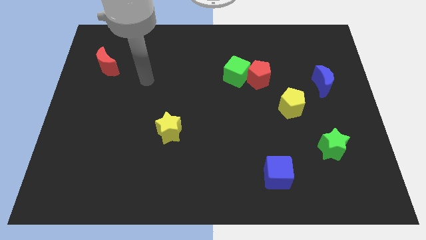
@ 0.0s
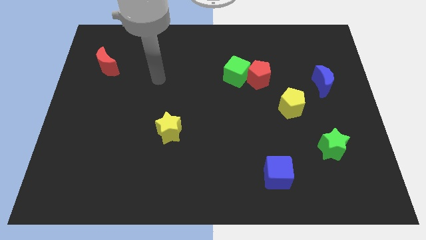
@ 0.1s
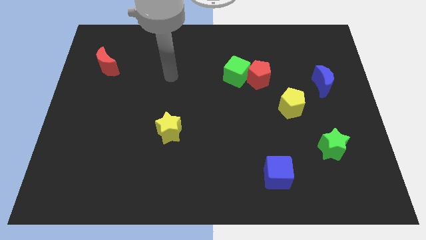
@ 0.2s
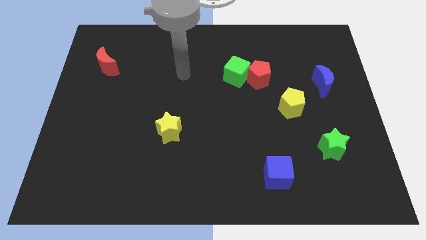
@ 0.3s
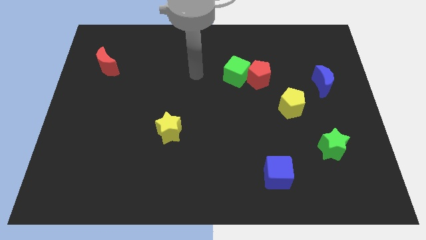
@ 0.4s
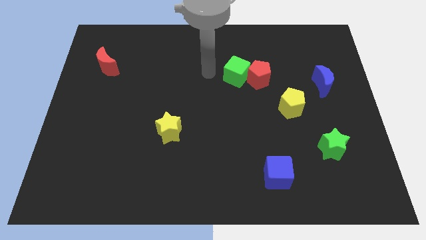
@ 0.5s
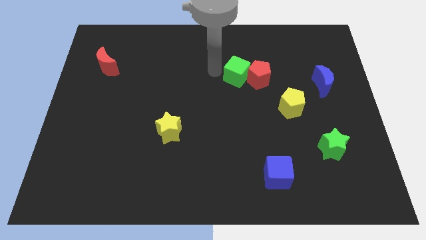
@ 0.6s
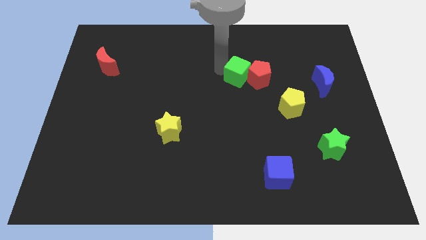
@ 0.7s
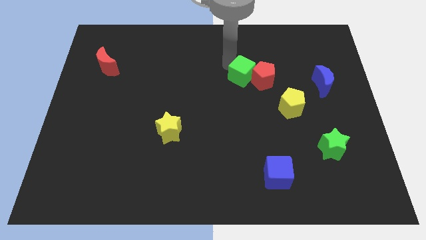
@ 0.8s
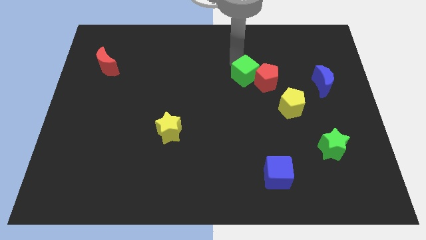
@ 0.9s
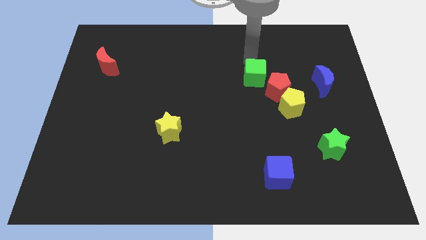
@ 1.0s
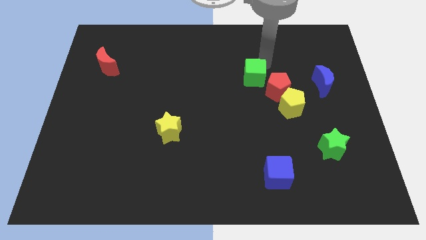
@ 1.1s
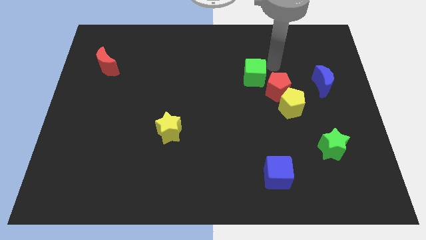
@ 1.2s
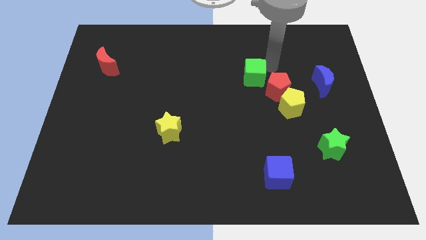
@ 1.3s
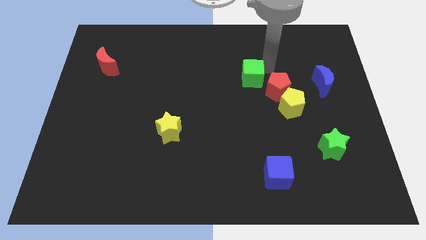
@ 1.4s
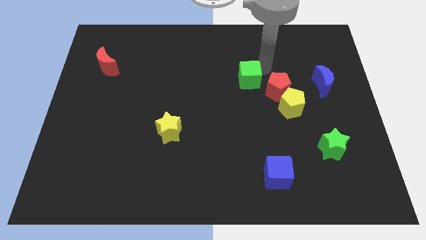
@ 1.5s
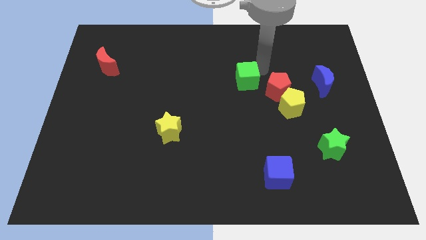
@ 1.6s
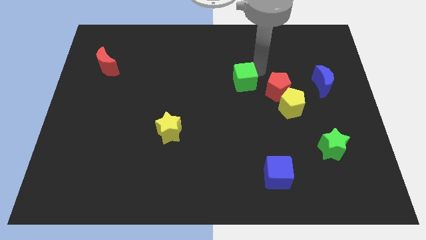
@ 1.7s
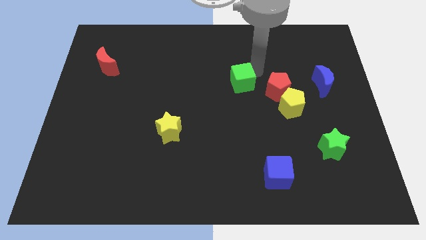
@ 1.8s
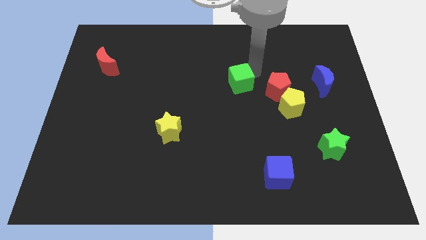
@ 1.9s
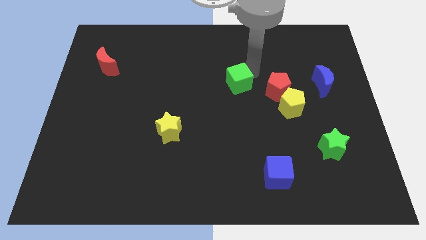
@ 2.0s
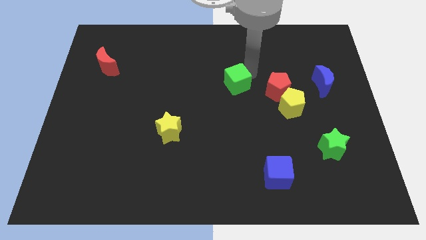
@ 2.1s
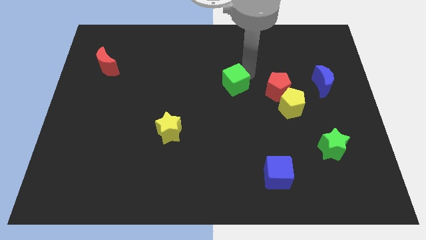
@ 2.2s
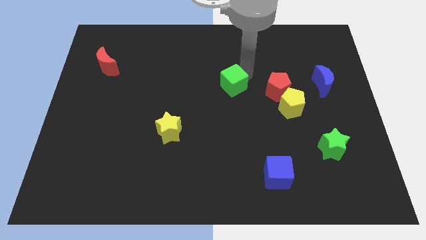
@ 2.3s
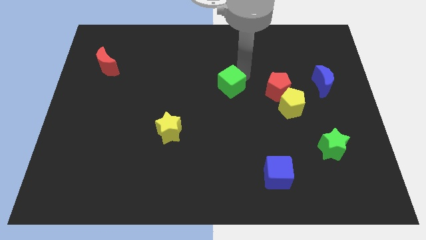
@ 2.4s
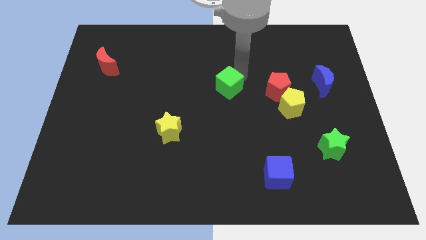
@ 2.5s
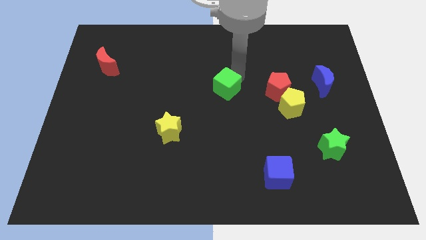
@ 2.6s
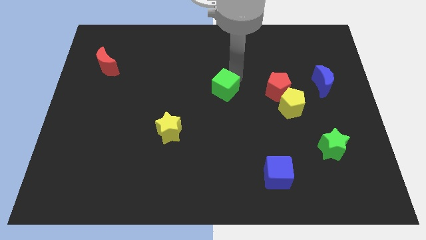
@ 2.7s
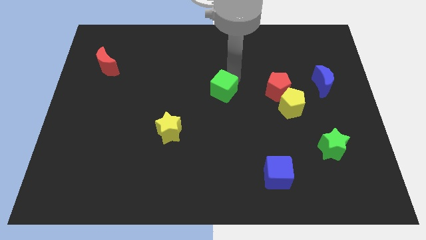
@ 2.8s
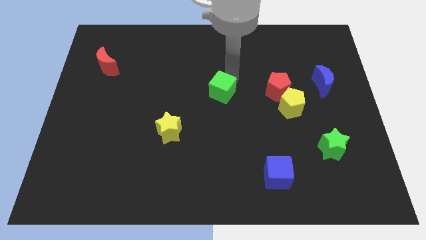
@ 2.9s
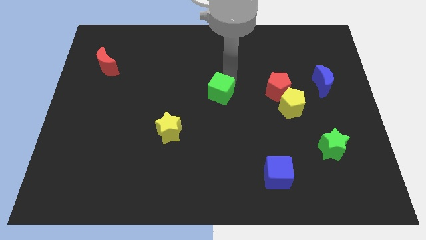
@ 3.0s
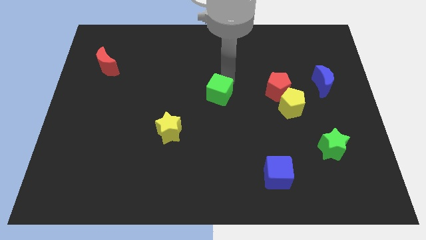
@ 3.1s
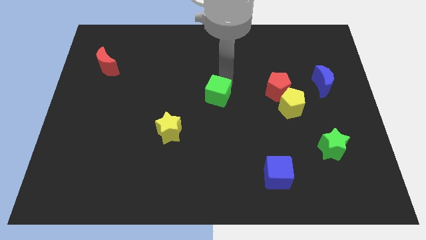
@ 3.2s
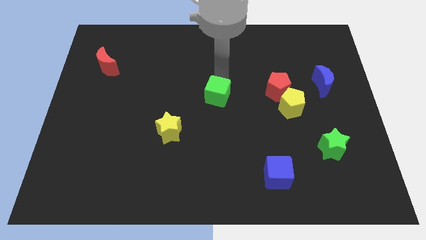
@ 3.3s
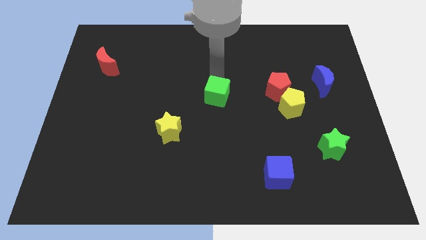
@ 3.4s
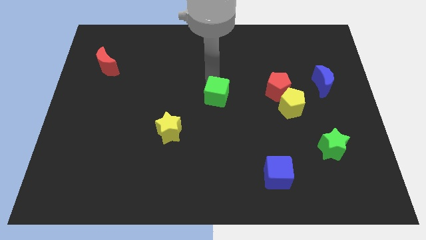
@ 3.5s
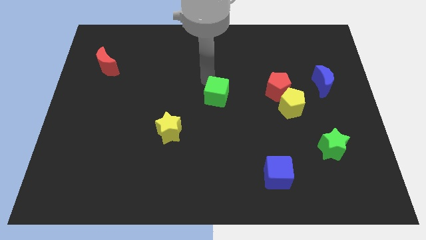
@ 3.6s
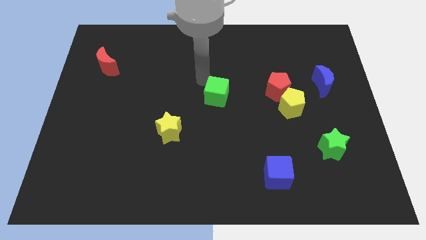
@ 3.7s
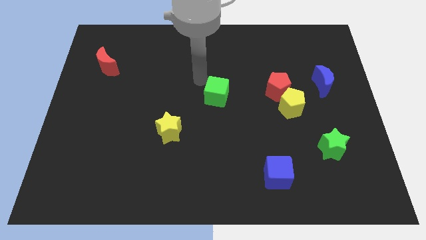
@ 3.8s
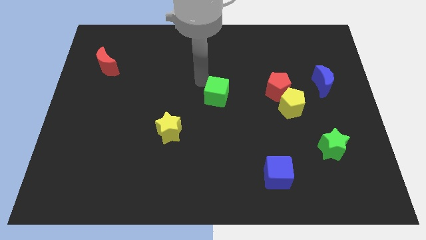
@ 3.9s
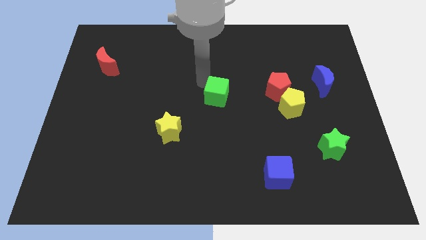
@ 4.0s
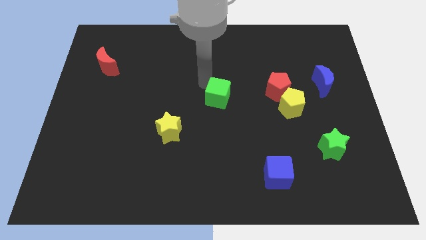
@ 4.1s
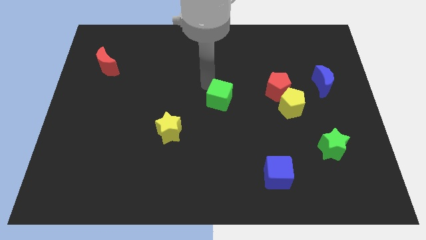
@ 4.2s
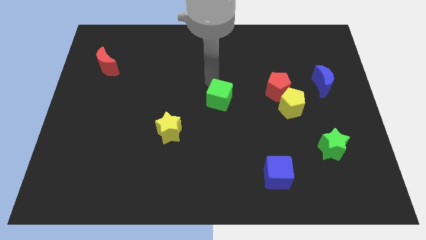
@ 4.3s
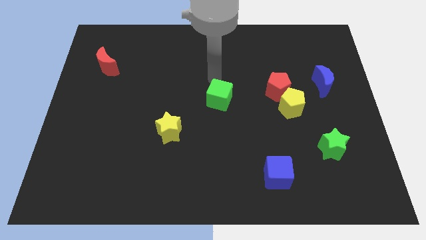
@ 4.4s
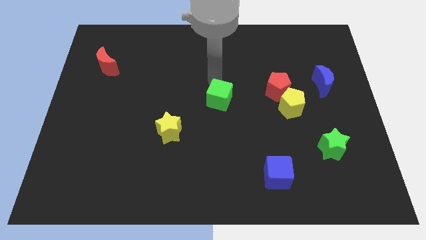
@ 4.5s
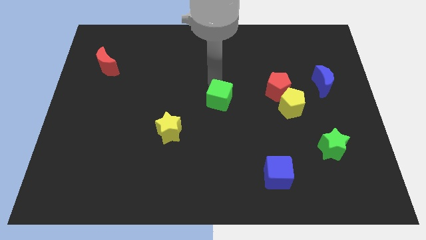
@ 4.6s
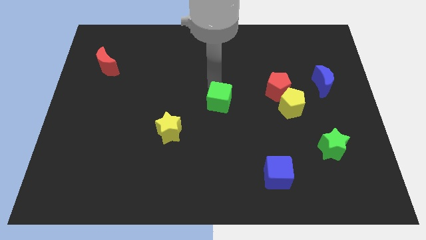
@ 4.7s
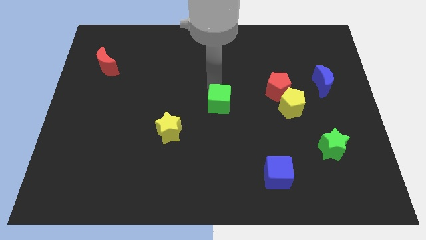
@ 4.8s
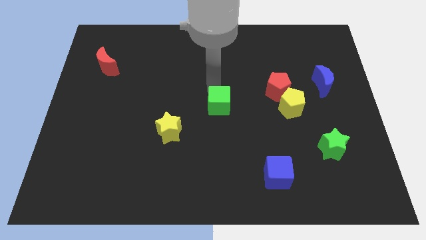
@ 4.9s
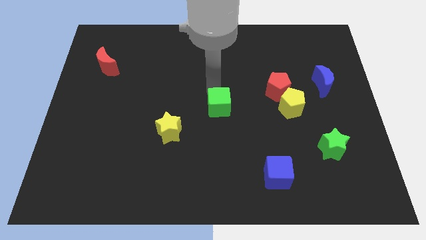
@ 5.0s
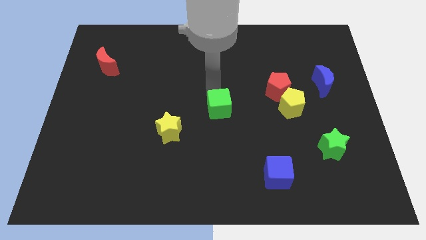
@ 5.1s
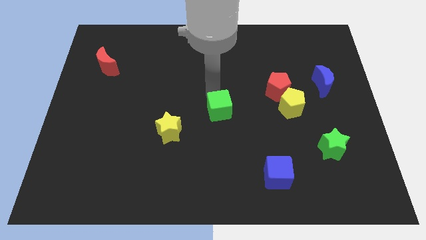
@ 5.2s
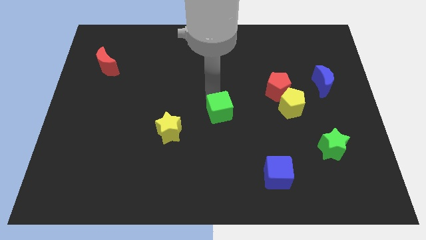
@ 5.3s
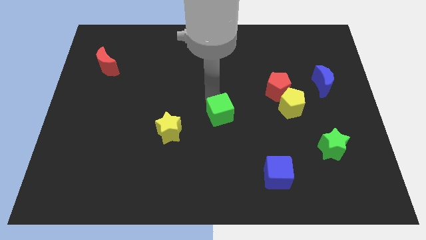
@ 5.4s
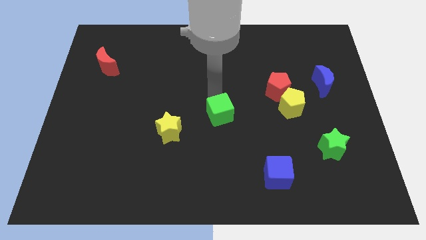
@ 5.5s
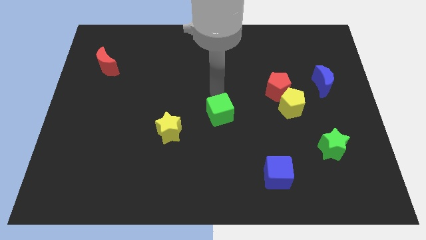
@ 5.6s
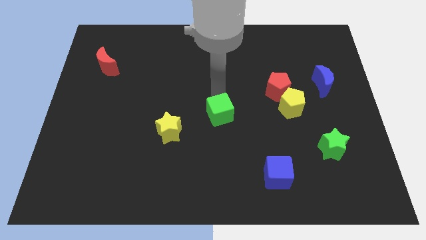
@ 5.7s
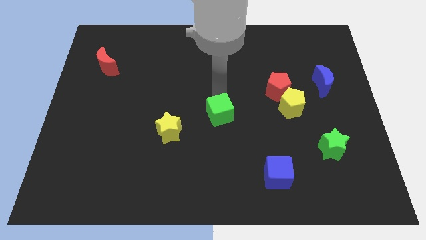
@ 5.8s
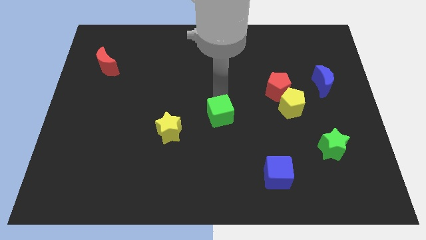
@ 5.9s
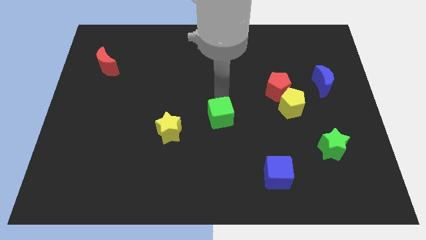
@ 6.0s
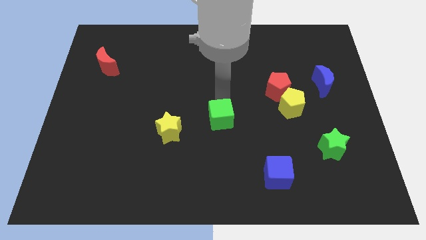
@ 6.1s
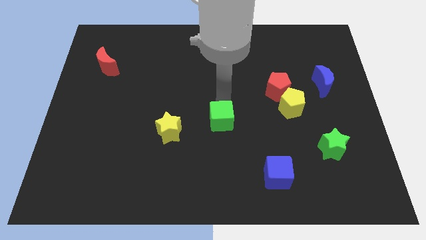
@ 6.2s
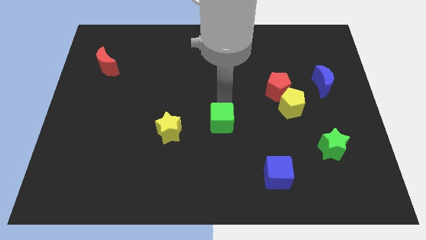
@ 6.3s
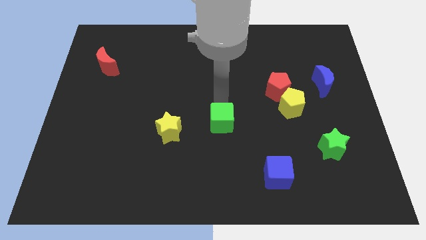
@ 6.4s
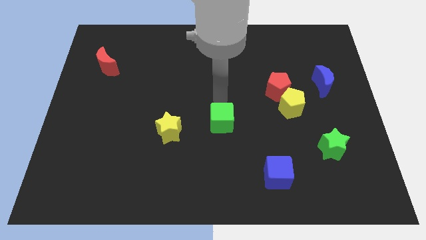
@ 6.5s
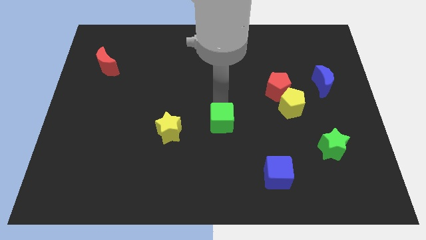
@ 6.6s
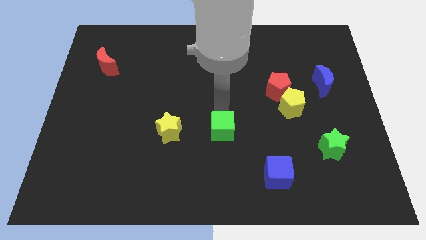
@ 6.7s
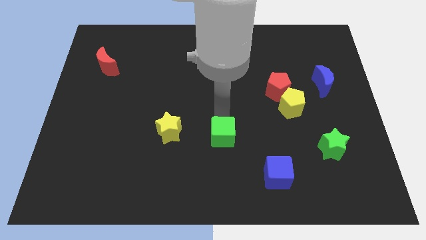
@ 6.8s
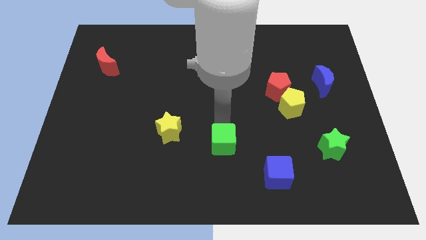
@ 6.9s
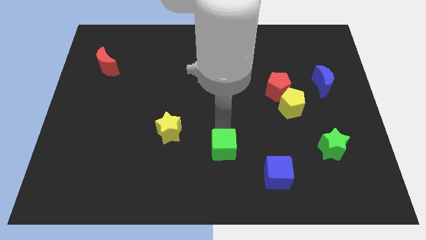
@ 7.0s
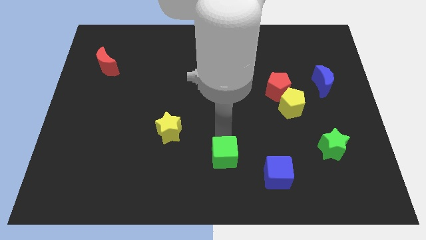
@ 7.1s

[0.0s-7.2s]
put the green cube to the left of the blue cube
